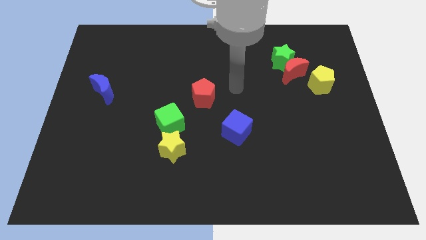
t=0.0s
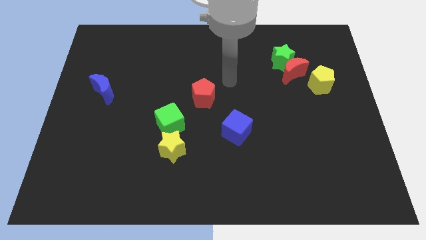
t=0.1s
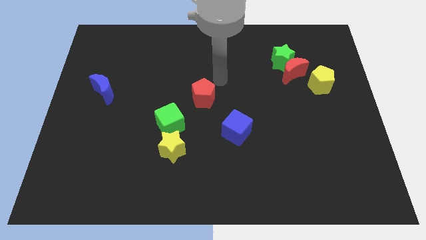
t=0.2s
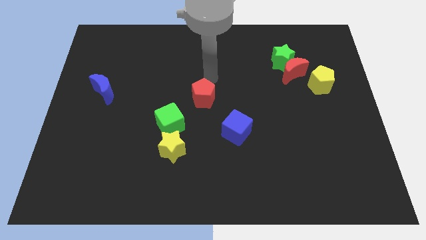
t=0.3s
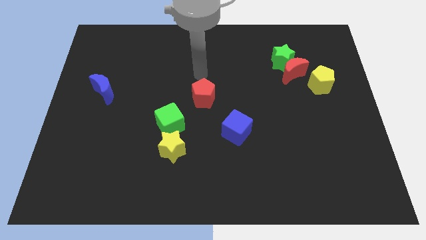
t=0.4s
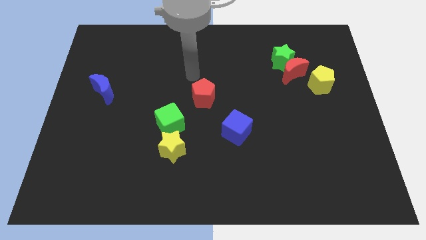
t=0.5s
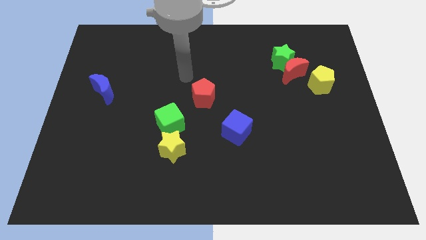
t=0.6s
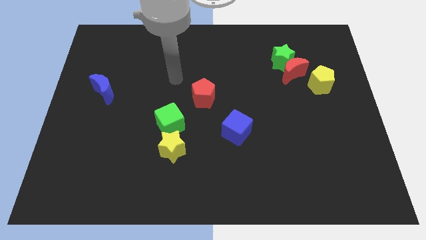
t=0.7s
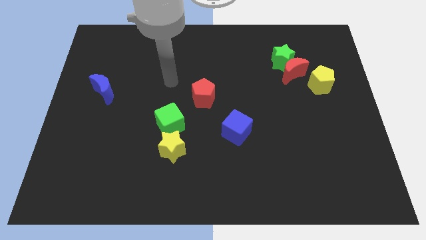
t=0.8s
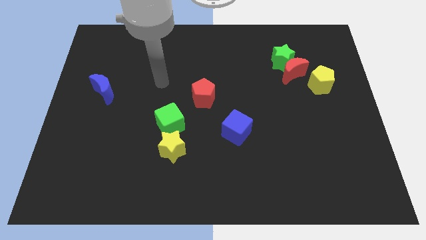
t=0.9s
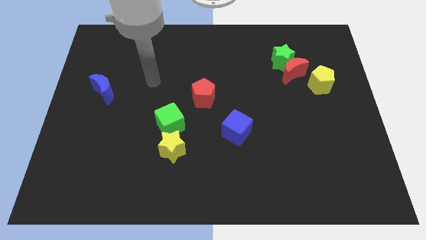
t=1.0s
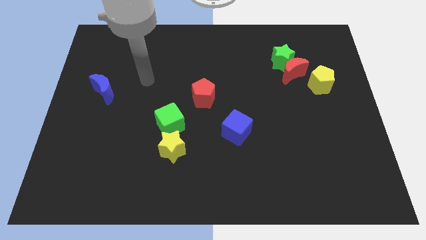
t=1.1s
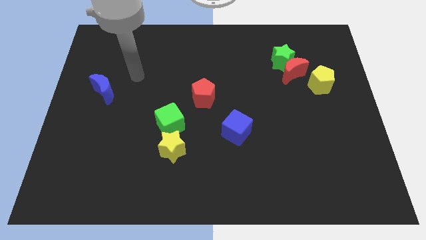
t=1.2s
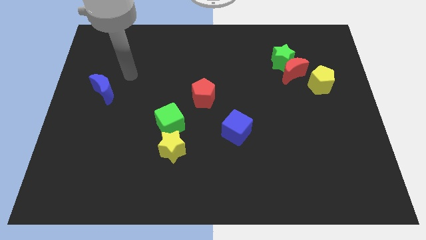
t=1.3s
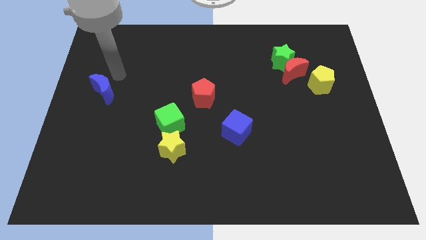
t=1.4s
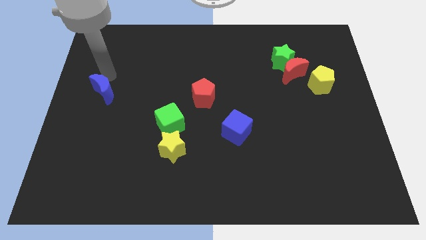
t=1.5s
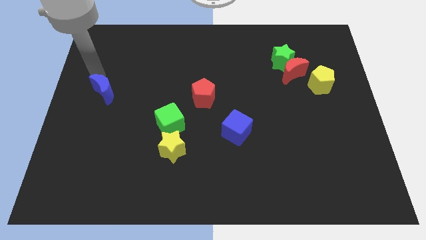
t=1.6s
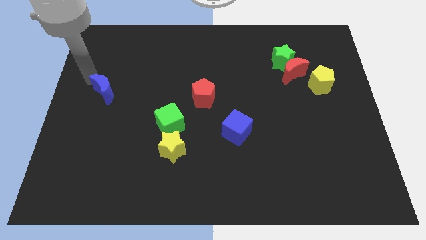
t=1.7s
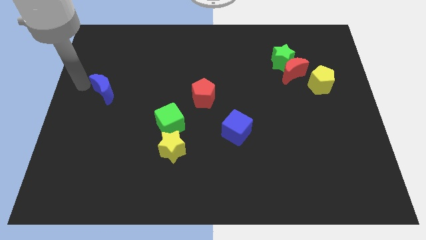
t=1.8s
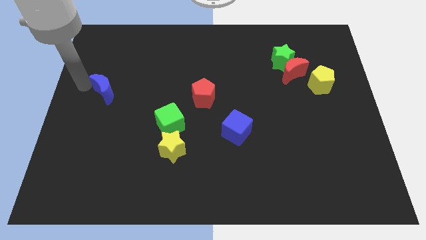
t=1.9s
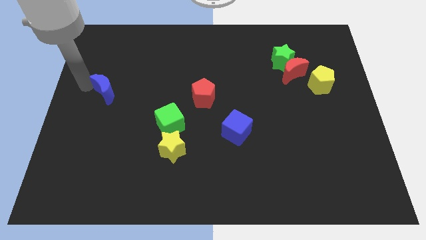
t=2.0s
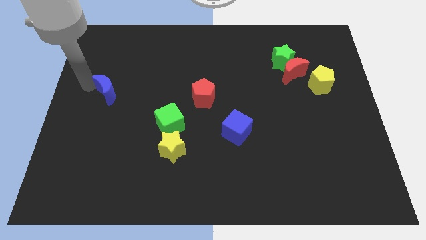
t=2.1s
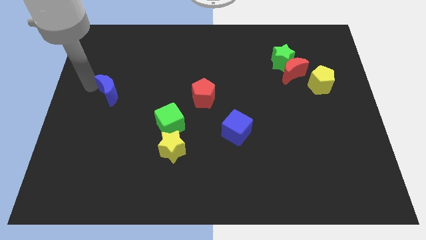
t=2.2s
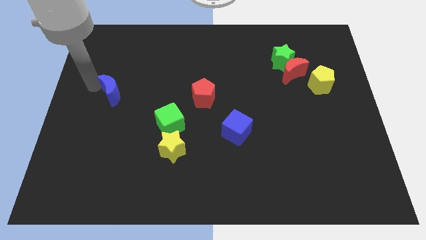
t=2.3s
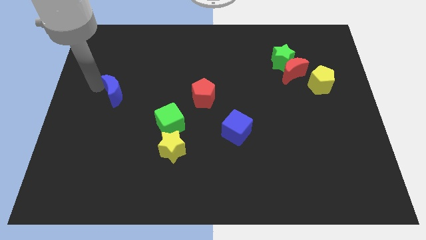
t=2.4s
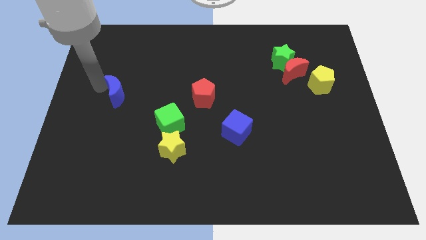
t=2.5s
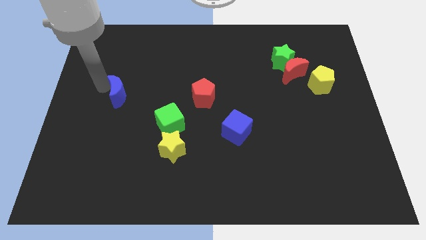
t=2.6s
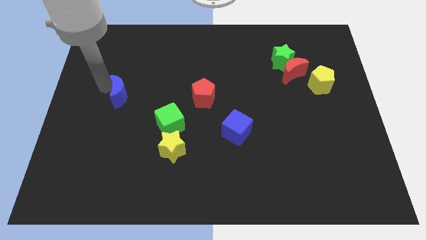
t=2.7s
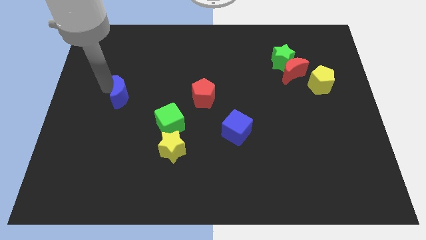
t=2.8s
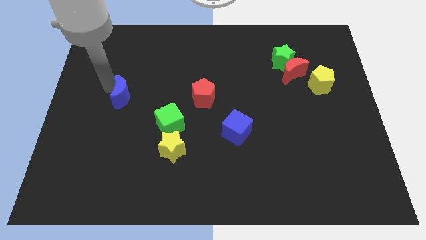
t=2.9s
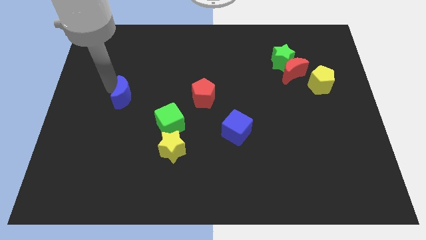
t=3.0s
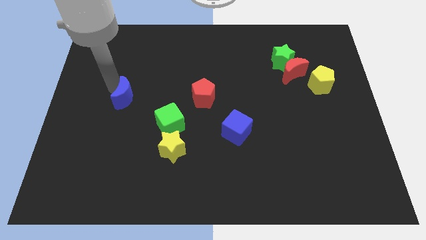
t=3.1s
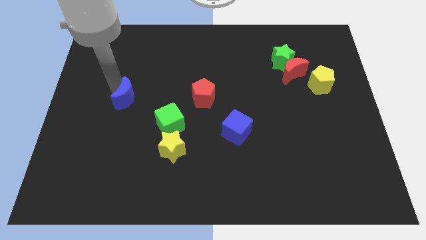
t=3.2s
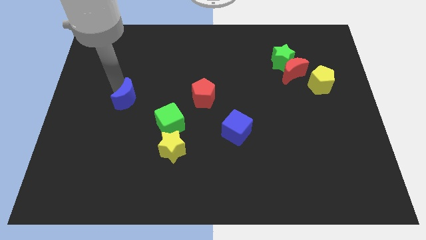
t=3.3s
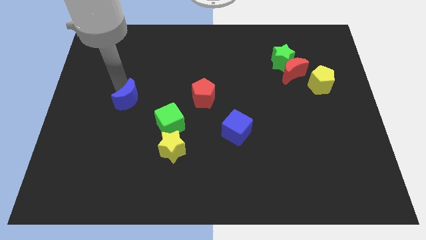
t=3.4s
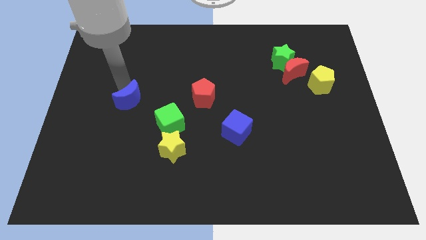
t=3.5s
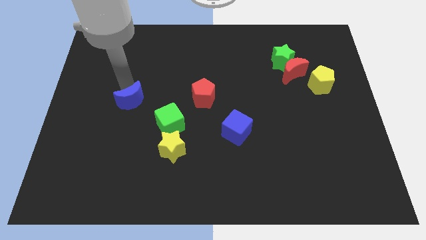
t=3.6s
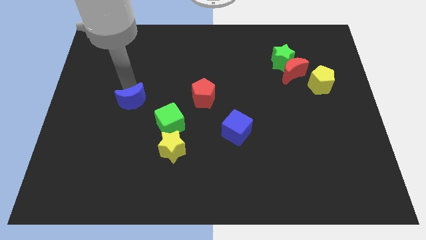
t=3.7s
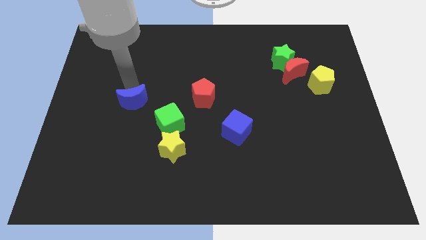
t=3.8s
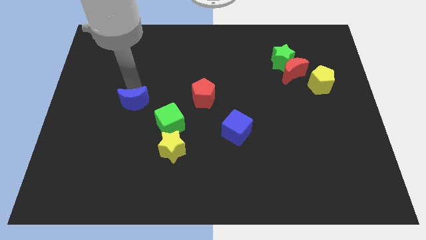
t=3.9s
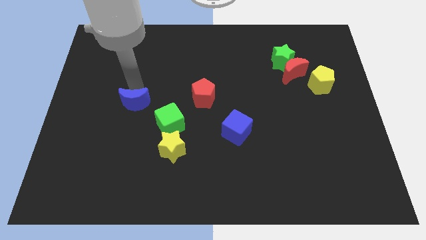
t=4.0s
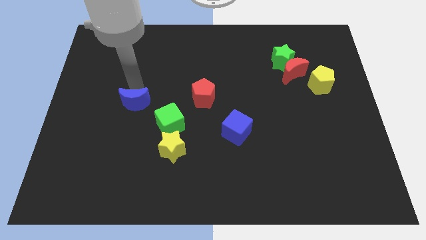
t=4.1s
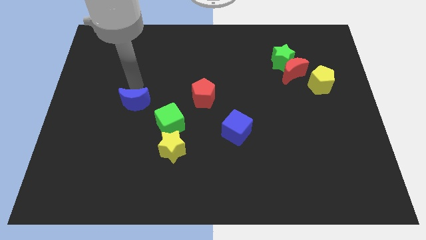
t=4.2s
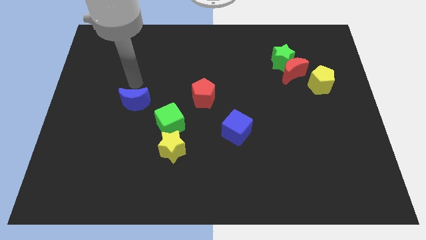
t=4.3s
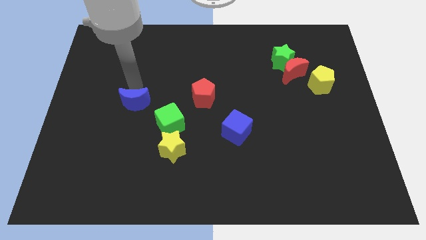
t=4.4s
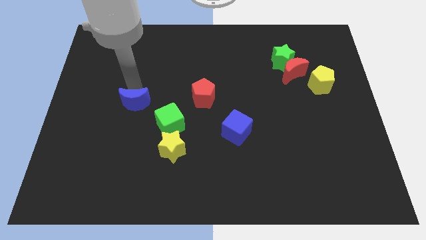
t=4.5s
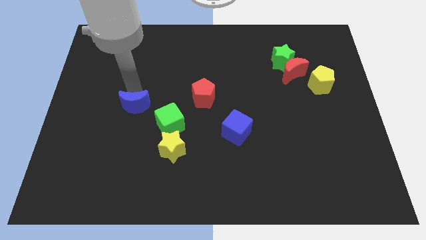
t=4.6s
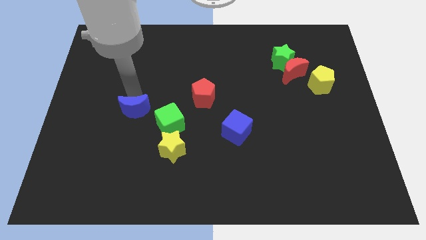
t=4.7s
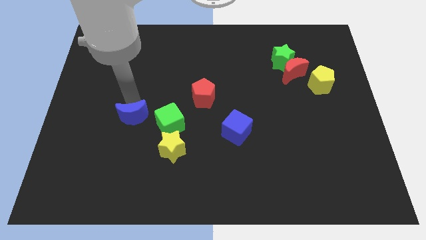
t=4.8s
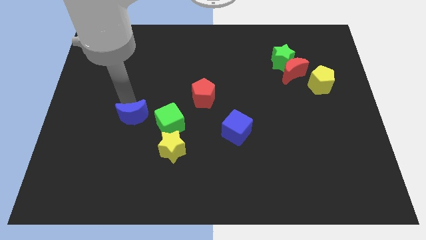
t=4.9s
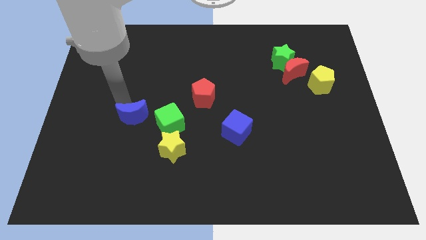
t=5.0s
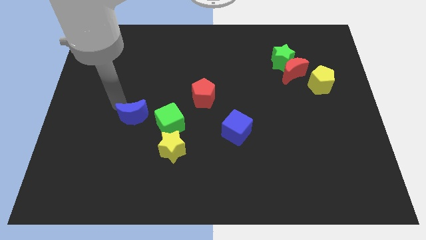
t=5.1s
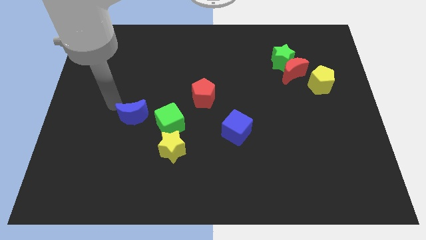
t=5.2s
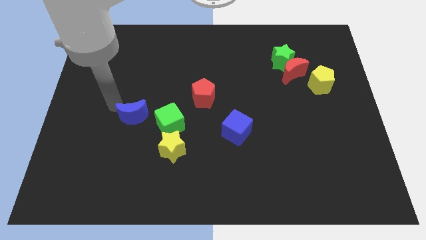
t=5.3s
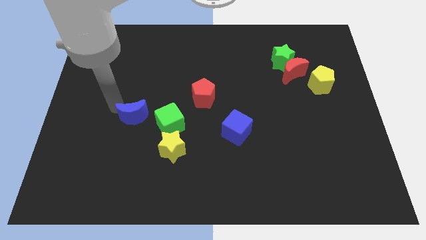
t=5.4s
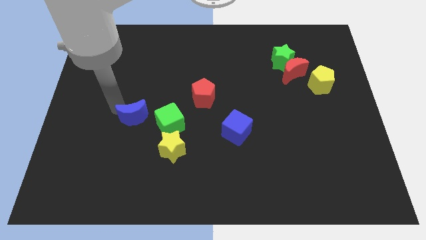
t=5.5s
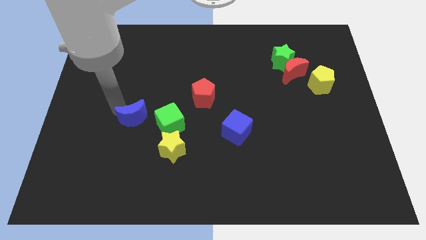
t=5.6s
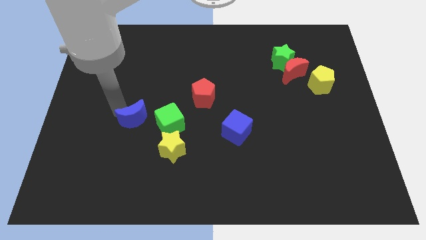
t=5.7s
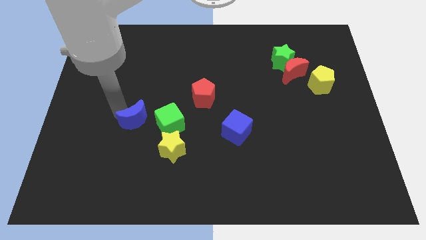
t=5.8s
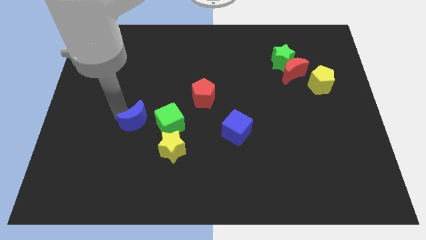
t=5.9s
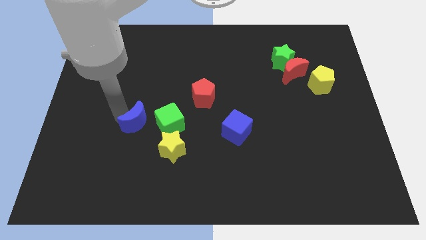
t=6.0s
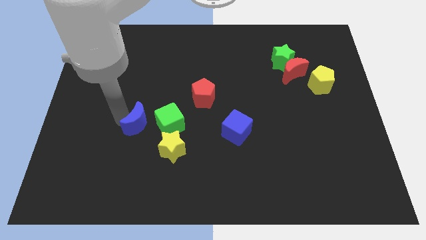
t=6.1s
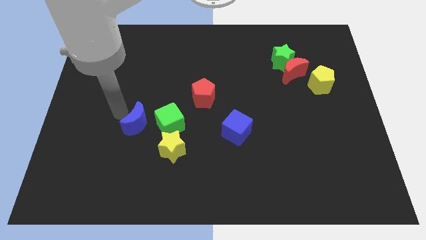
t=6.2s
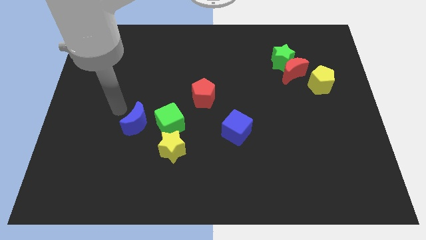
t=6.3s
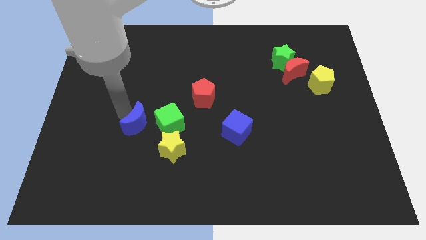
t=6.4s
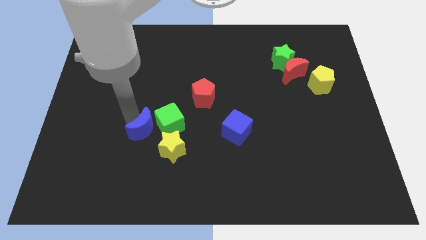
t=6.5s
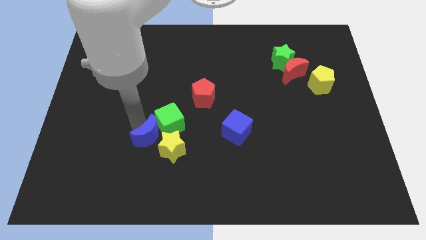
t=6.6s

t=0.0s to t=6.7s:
put the blue moon close to the yellow star

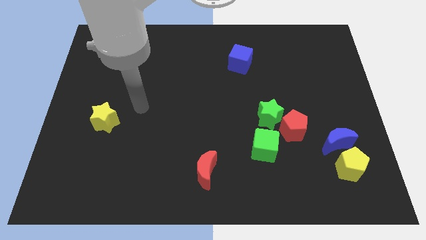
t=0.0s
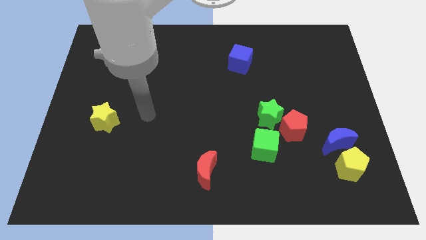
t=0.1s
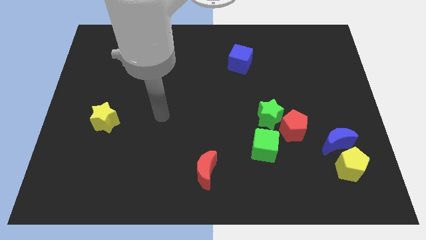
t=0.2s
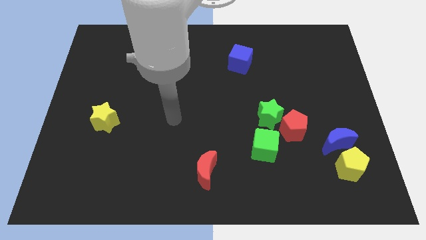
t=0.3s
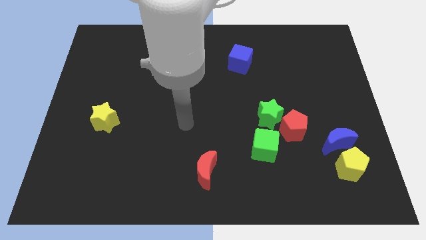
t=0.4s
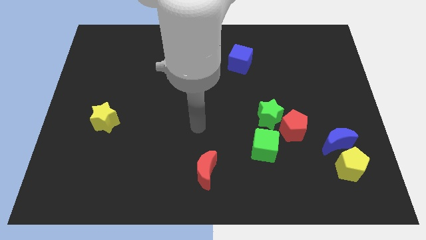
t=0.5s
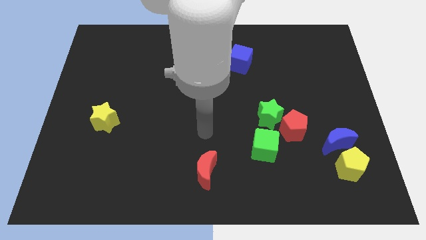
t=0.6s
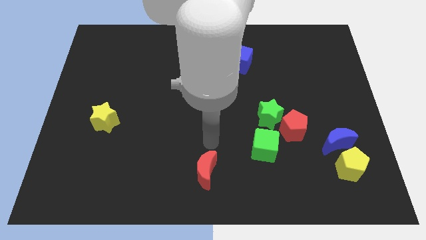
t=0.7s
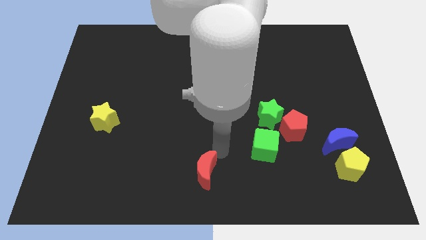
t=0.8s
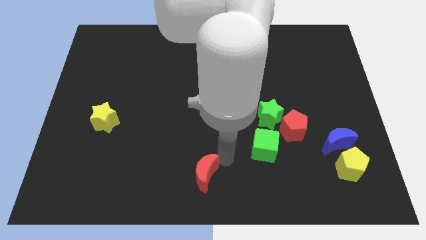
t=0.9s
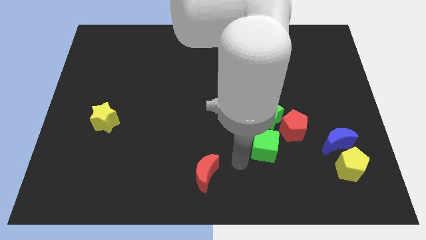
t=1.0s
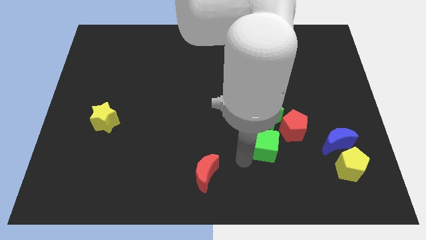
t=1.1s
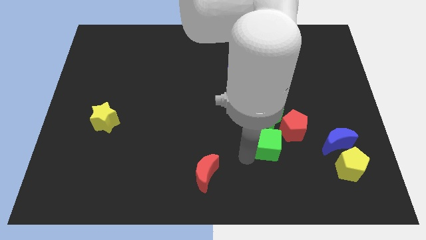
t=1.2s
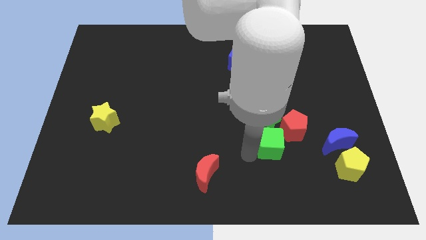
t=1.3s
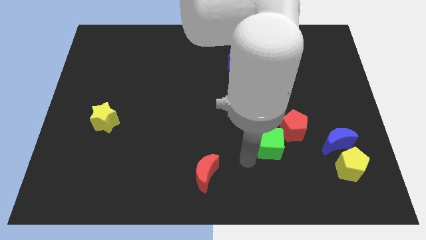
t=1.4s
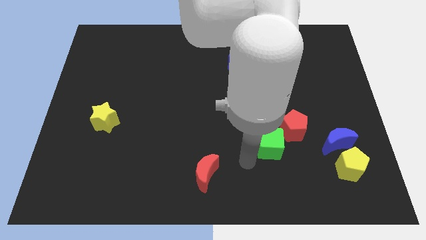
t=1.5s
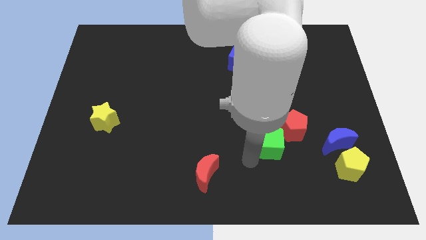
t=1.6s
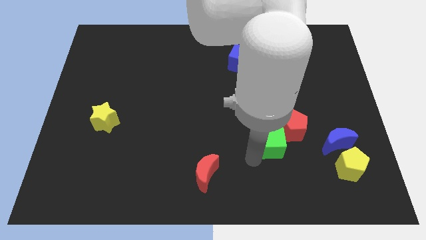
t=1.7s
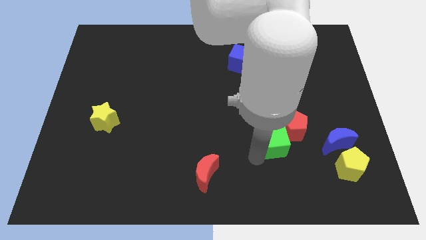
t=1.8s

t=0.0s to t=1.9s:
push the green cube to the red pentagon
